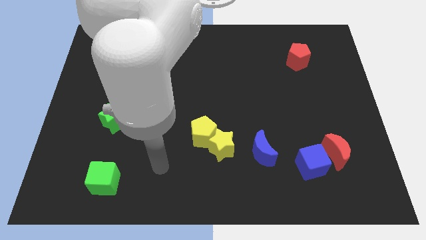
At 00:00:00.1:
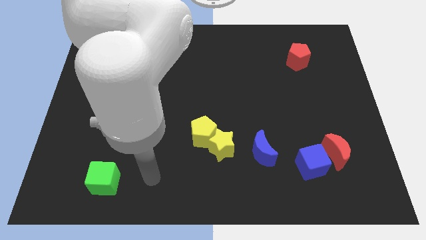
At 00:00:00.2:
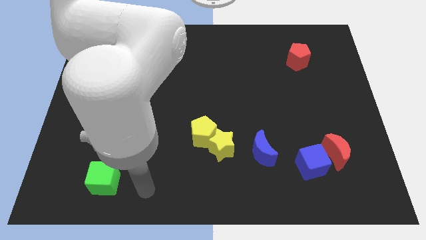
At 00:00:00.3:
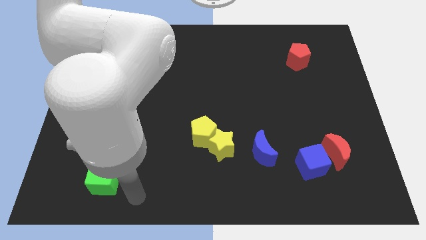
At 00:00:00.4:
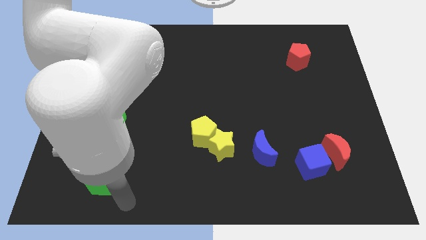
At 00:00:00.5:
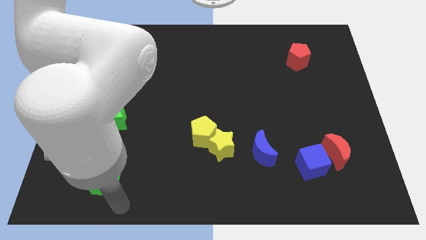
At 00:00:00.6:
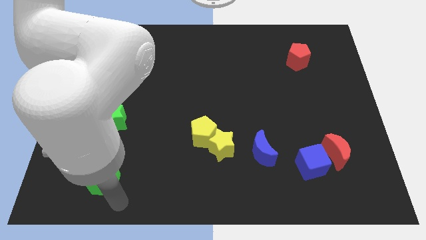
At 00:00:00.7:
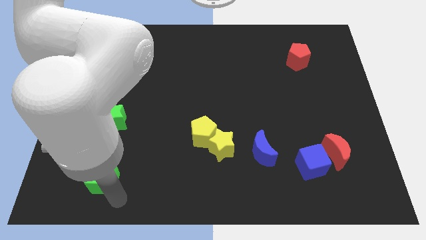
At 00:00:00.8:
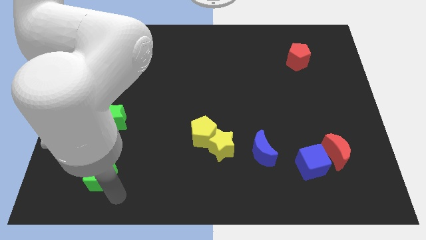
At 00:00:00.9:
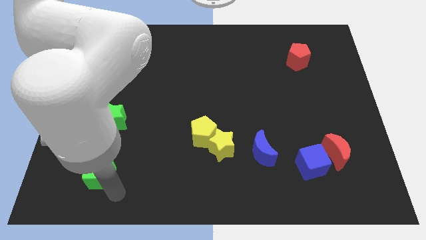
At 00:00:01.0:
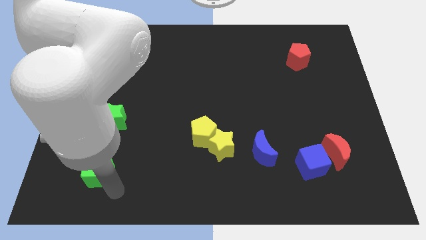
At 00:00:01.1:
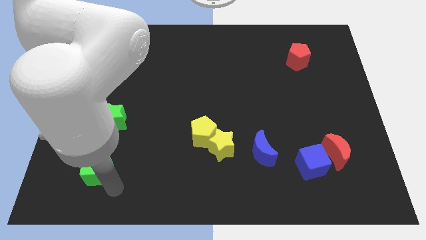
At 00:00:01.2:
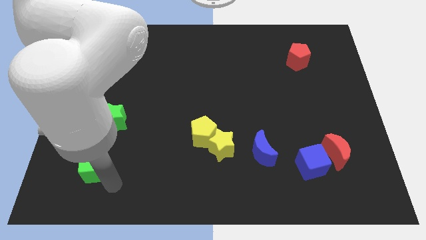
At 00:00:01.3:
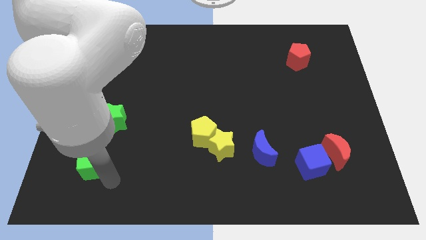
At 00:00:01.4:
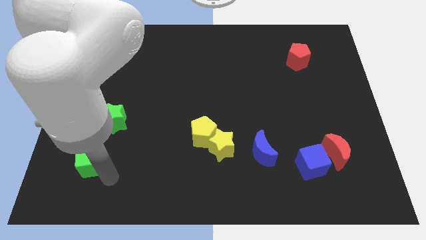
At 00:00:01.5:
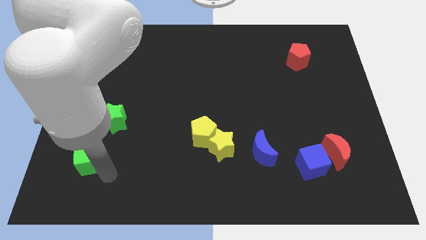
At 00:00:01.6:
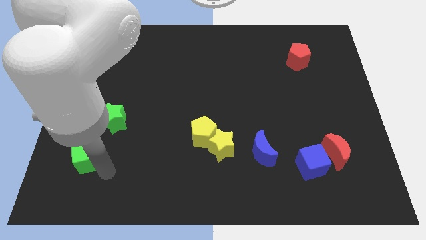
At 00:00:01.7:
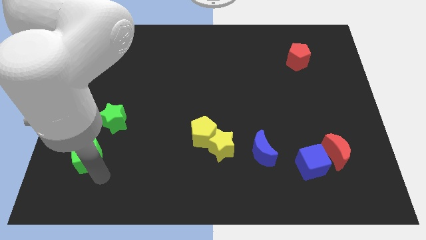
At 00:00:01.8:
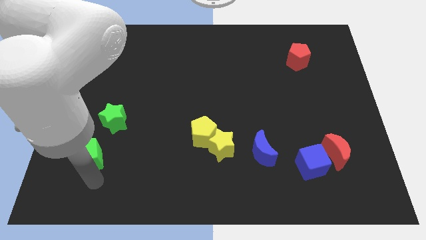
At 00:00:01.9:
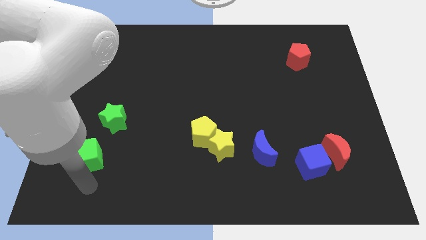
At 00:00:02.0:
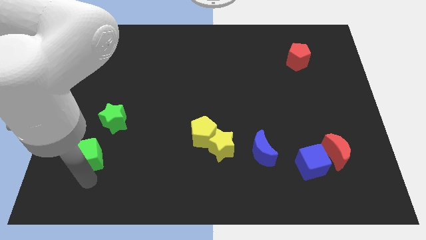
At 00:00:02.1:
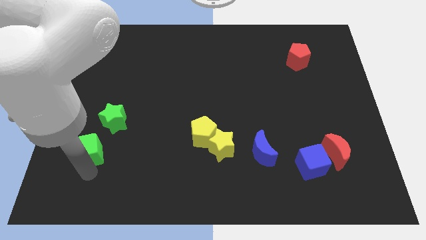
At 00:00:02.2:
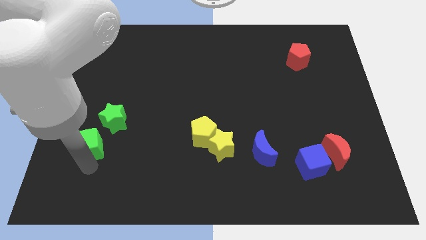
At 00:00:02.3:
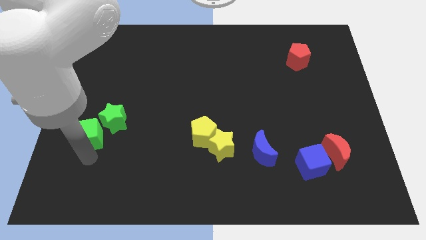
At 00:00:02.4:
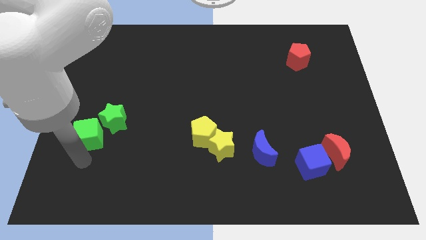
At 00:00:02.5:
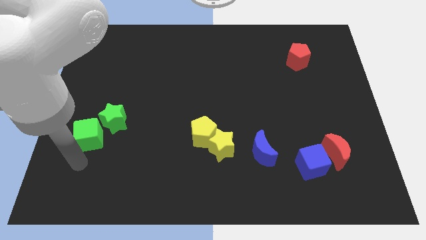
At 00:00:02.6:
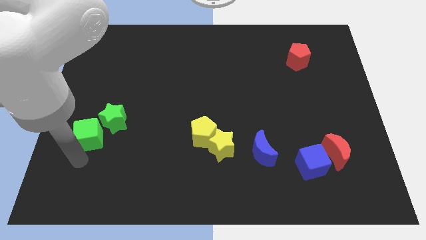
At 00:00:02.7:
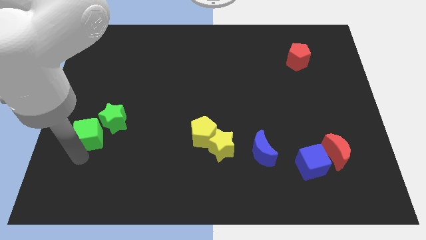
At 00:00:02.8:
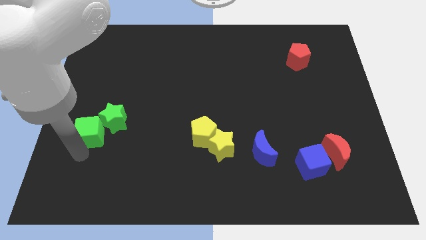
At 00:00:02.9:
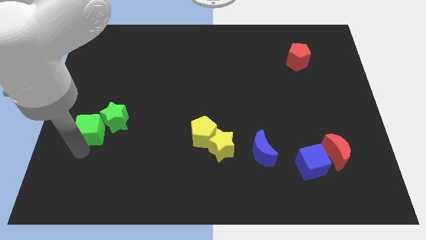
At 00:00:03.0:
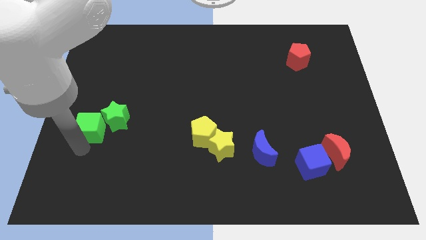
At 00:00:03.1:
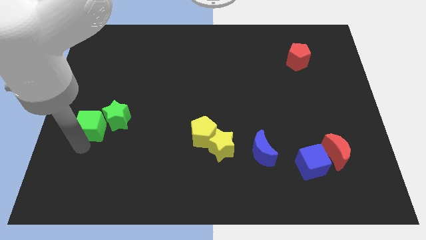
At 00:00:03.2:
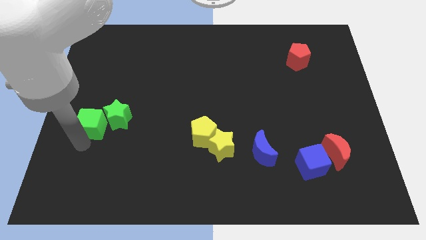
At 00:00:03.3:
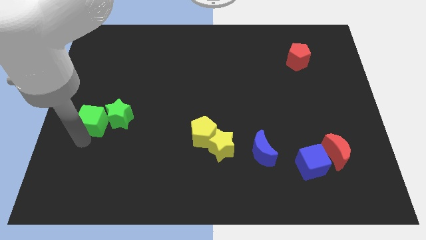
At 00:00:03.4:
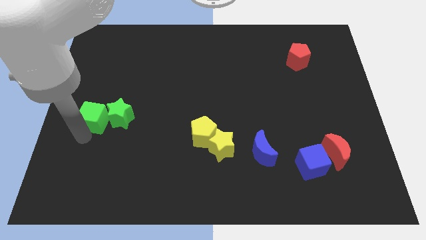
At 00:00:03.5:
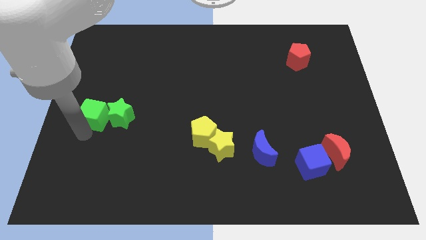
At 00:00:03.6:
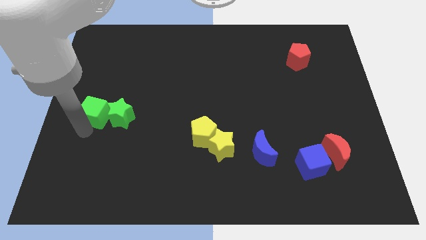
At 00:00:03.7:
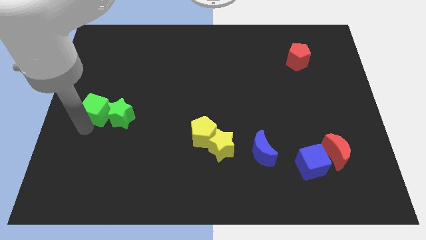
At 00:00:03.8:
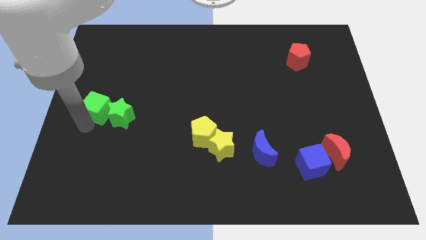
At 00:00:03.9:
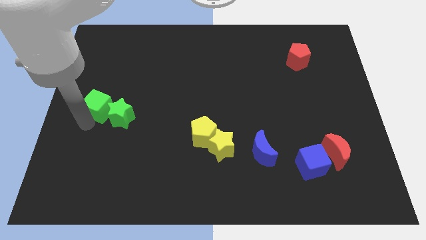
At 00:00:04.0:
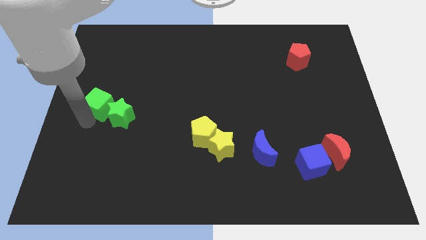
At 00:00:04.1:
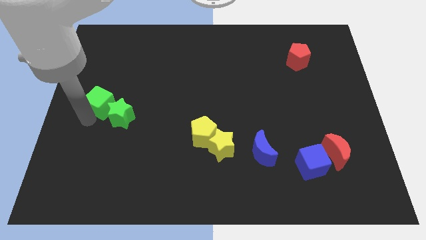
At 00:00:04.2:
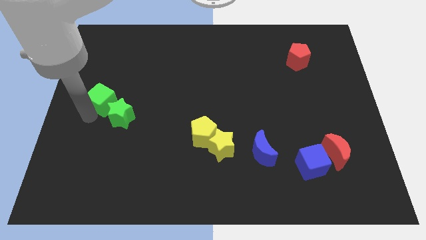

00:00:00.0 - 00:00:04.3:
slide the green cube up

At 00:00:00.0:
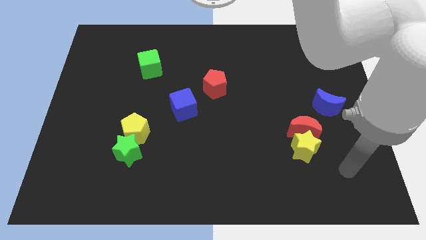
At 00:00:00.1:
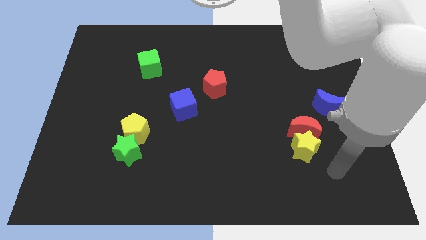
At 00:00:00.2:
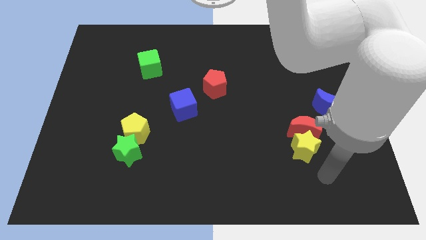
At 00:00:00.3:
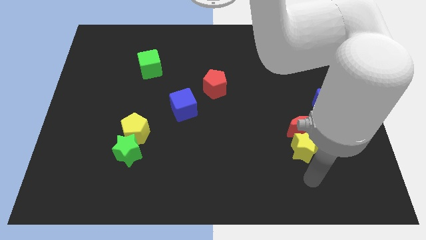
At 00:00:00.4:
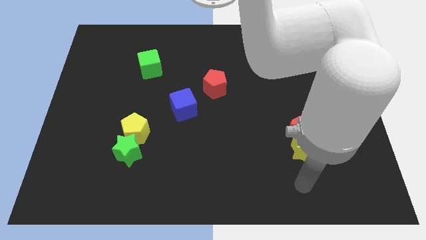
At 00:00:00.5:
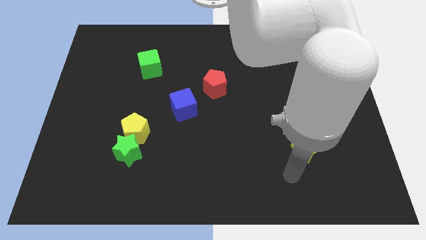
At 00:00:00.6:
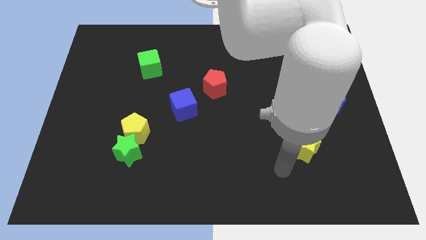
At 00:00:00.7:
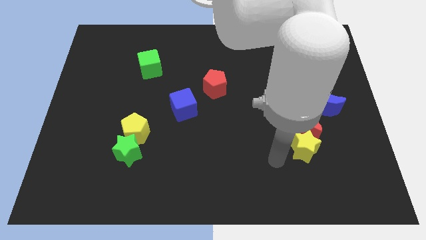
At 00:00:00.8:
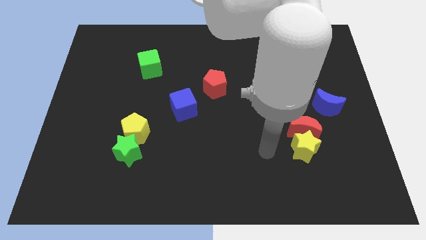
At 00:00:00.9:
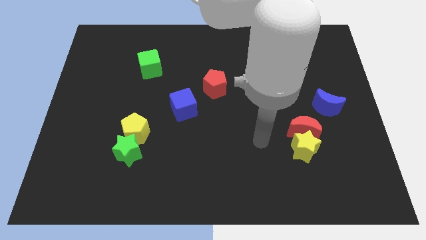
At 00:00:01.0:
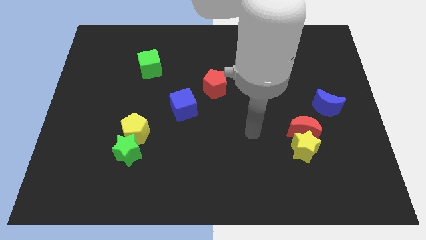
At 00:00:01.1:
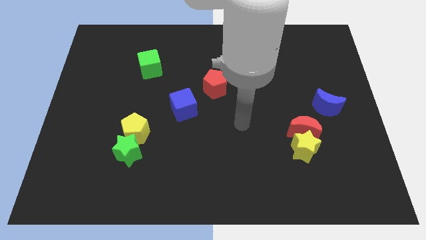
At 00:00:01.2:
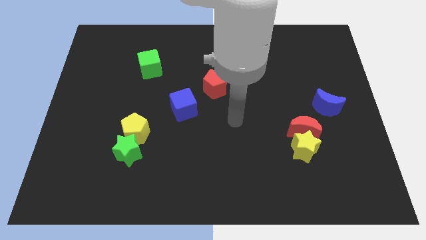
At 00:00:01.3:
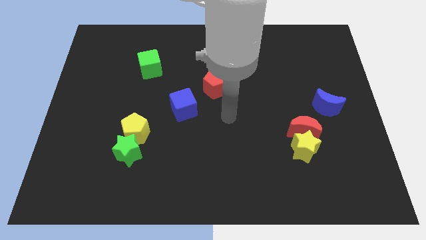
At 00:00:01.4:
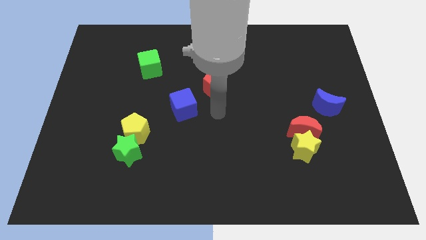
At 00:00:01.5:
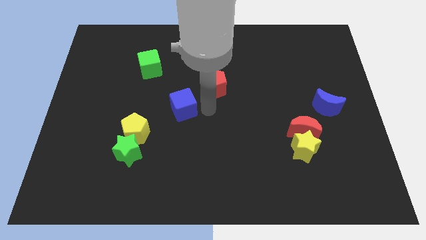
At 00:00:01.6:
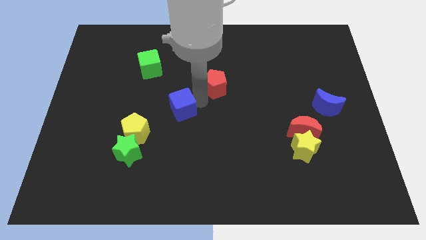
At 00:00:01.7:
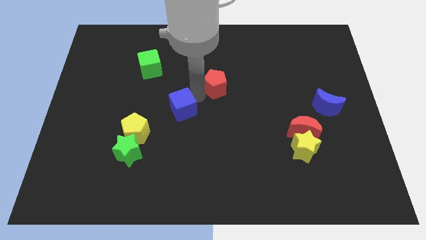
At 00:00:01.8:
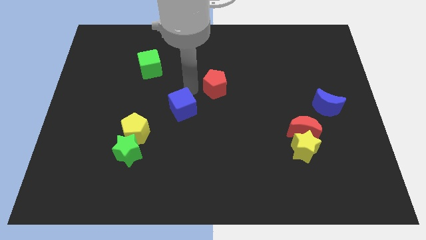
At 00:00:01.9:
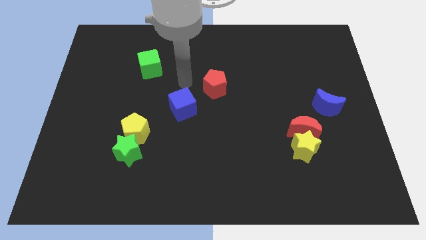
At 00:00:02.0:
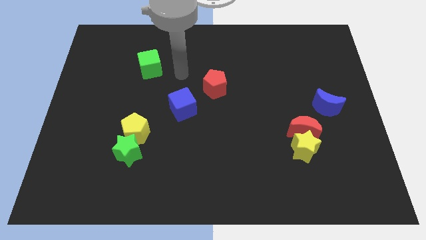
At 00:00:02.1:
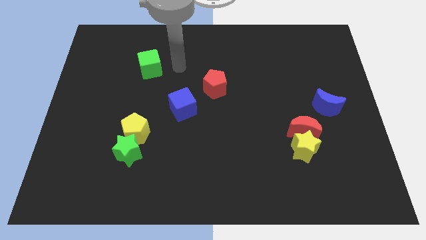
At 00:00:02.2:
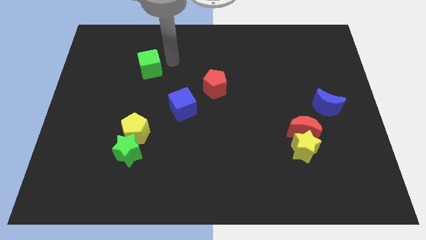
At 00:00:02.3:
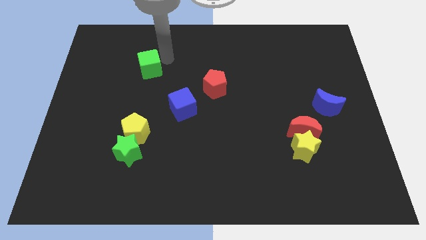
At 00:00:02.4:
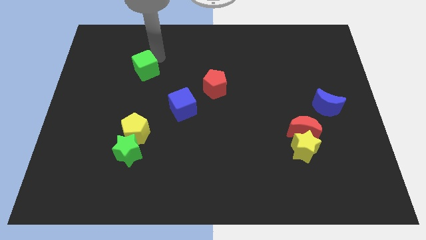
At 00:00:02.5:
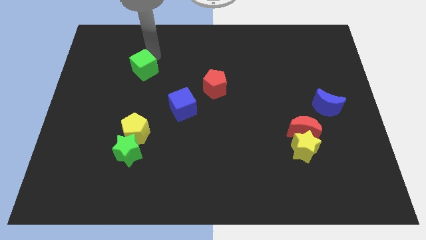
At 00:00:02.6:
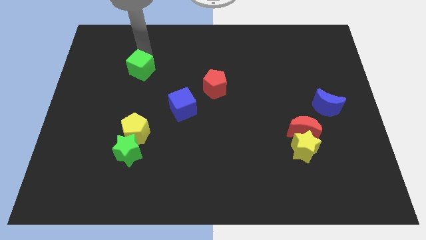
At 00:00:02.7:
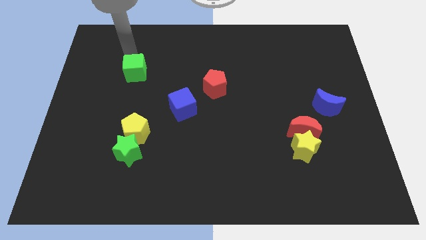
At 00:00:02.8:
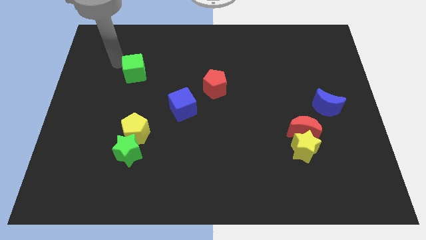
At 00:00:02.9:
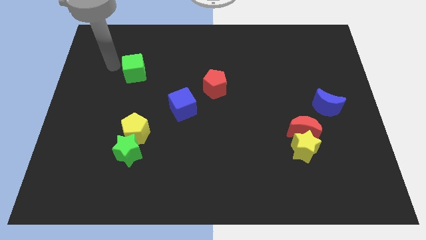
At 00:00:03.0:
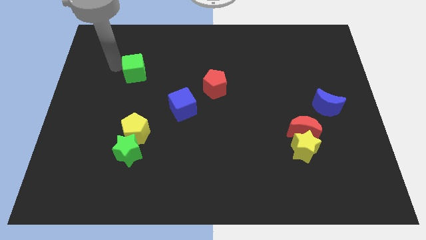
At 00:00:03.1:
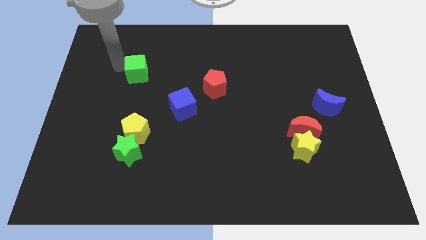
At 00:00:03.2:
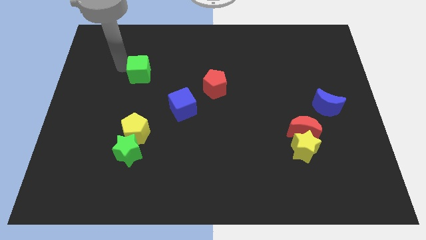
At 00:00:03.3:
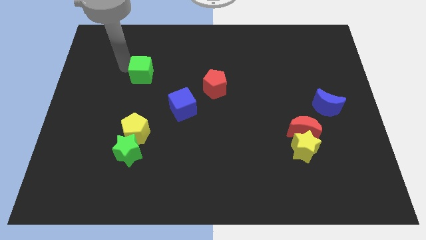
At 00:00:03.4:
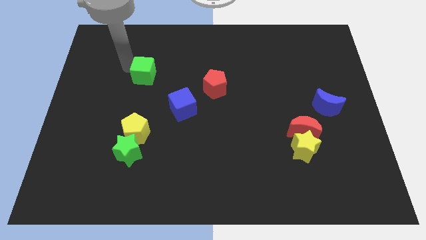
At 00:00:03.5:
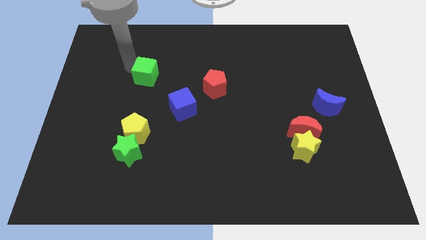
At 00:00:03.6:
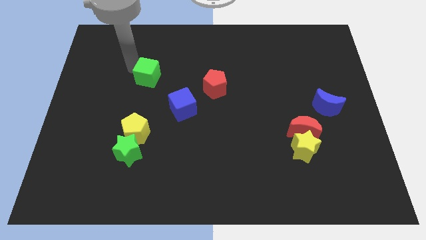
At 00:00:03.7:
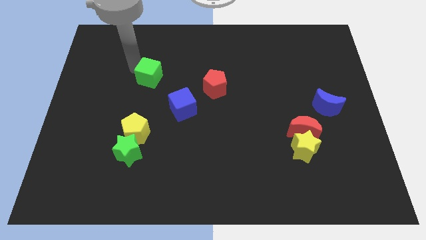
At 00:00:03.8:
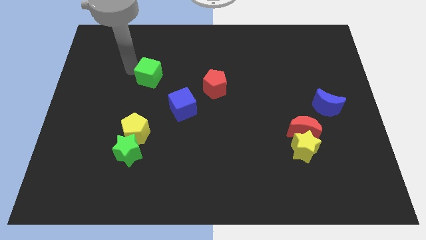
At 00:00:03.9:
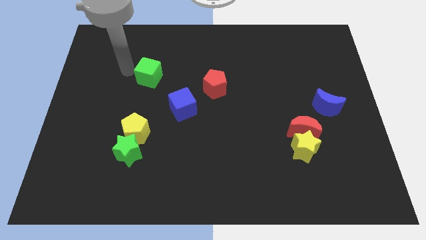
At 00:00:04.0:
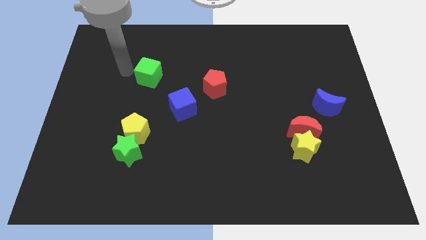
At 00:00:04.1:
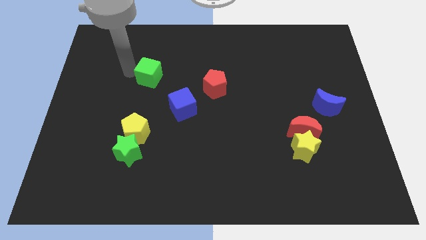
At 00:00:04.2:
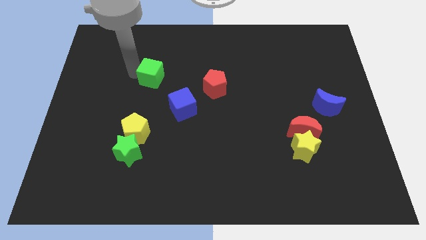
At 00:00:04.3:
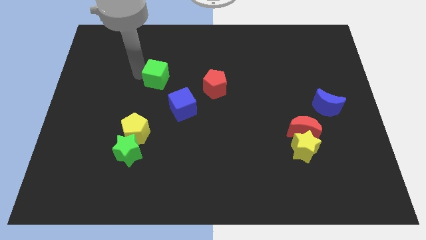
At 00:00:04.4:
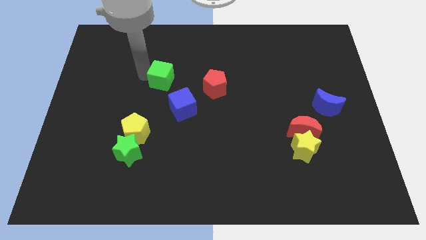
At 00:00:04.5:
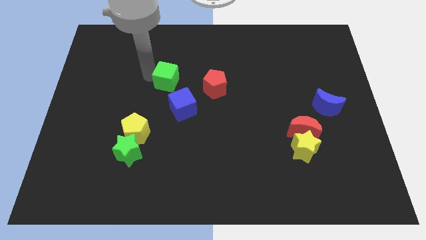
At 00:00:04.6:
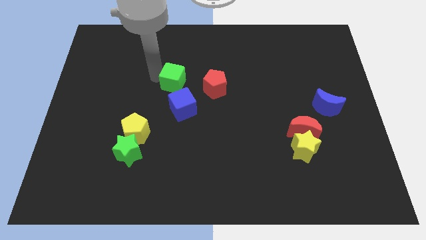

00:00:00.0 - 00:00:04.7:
slide the green cube down and right somewhat
